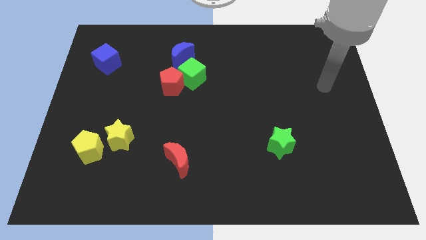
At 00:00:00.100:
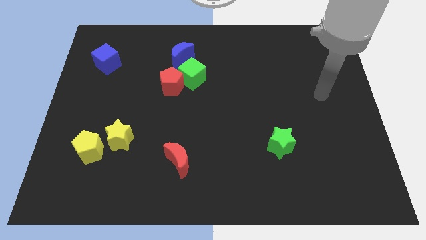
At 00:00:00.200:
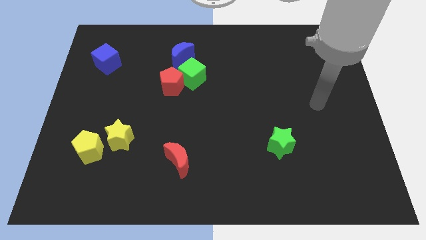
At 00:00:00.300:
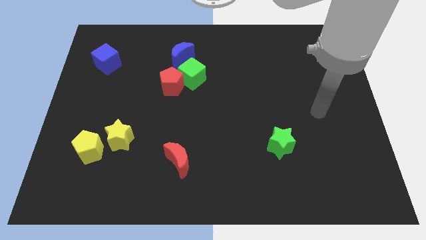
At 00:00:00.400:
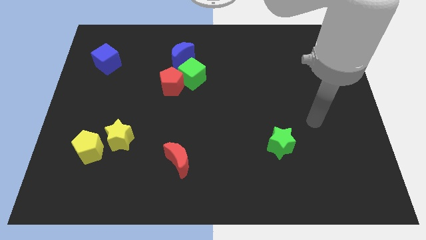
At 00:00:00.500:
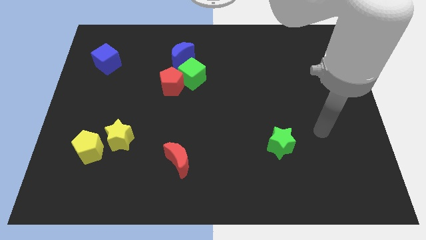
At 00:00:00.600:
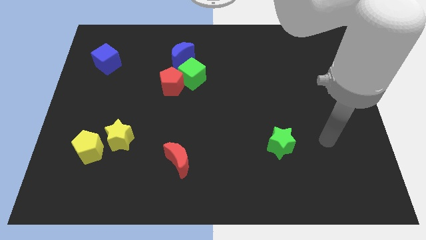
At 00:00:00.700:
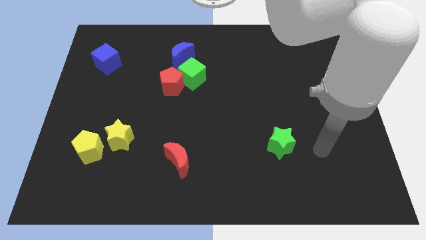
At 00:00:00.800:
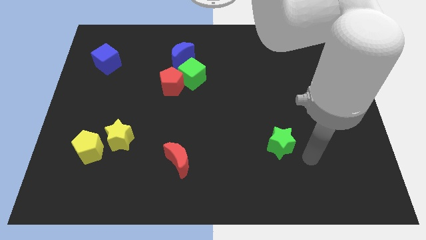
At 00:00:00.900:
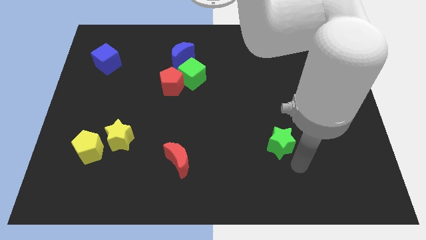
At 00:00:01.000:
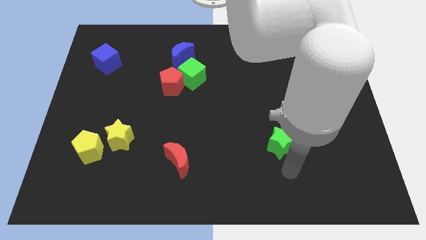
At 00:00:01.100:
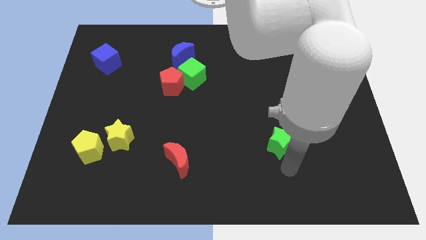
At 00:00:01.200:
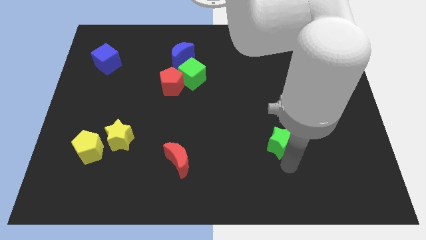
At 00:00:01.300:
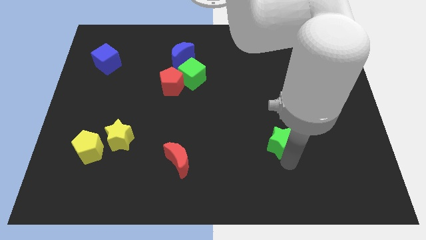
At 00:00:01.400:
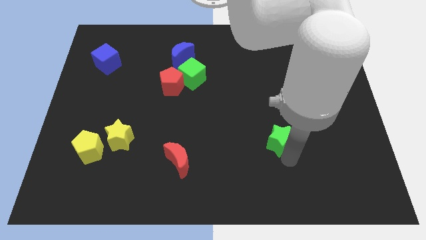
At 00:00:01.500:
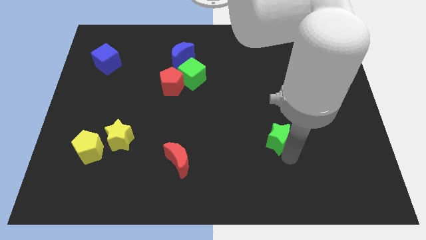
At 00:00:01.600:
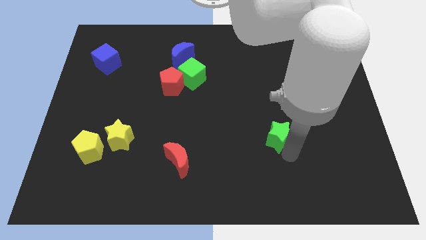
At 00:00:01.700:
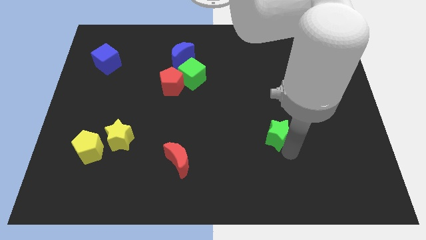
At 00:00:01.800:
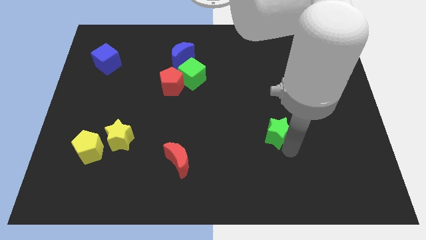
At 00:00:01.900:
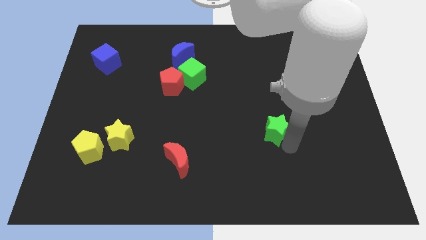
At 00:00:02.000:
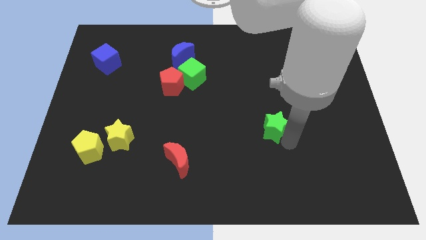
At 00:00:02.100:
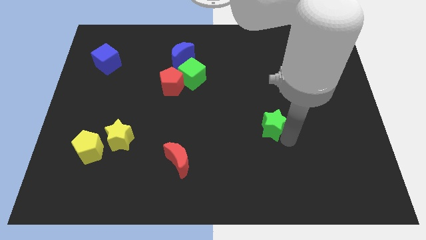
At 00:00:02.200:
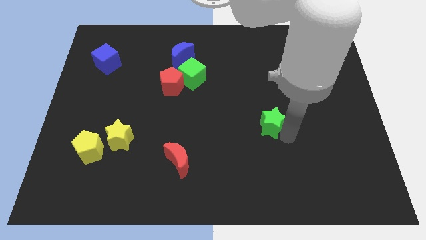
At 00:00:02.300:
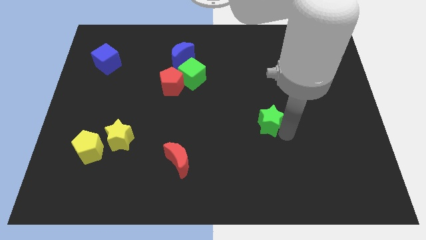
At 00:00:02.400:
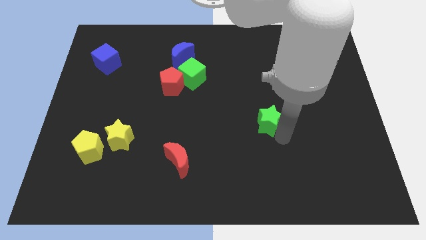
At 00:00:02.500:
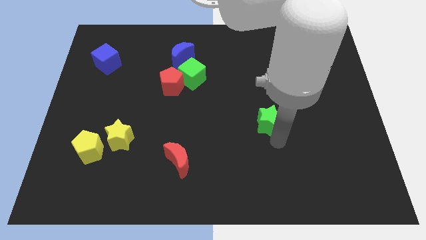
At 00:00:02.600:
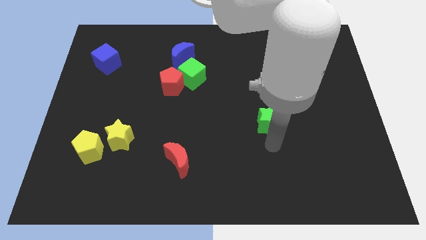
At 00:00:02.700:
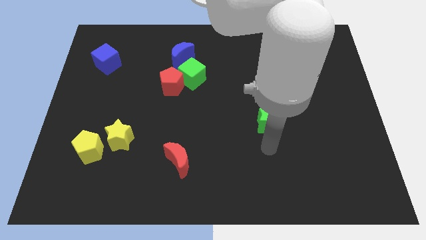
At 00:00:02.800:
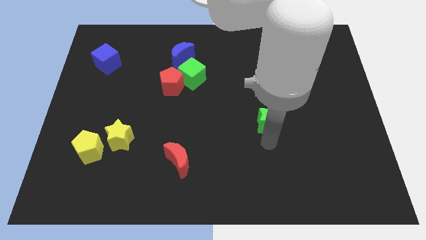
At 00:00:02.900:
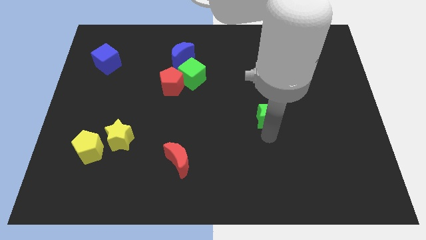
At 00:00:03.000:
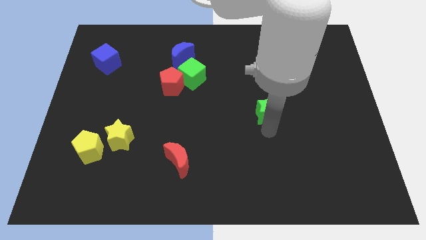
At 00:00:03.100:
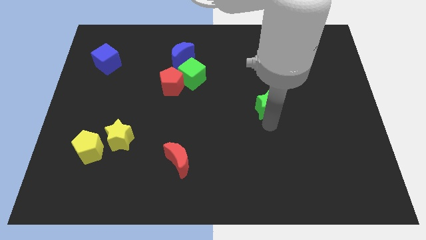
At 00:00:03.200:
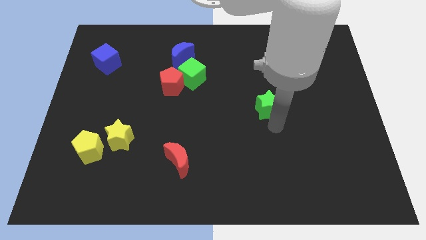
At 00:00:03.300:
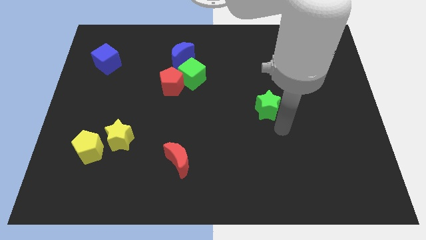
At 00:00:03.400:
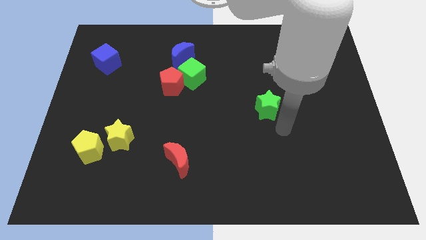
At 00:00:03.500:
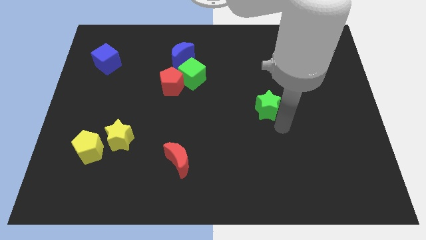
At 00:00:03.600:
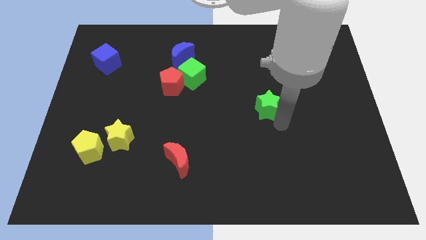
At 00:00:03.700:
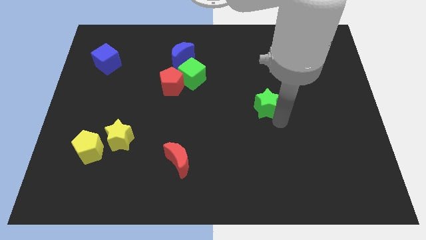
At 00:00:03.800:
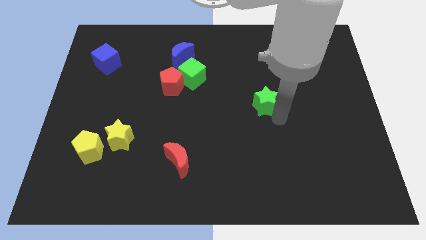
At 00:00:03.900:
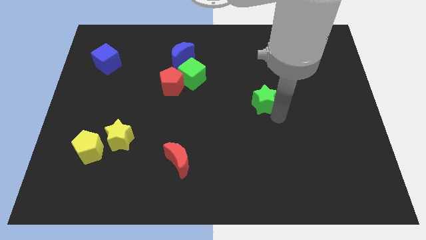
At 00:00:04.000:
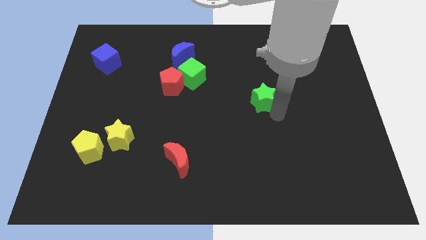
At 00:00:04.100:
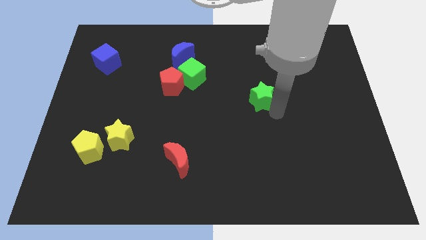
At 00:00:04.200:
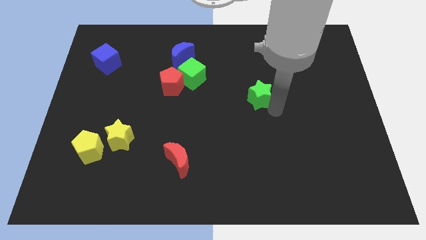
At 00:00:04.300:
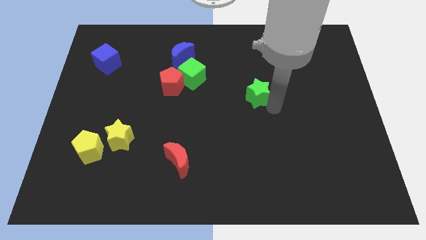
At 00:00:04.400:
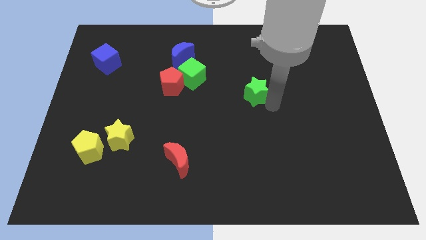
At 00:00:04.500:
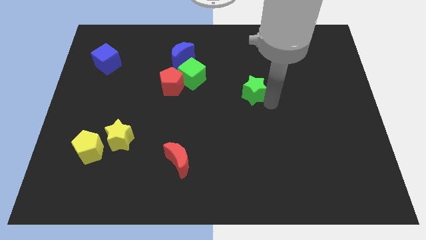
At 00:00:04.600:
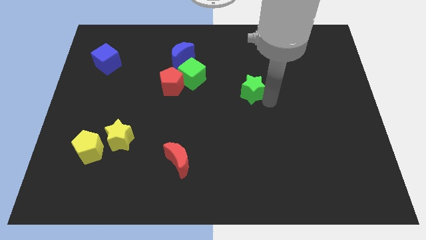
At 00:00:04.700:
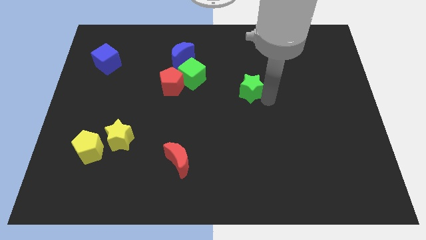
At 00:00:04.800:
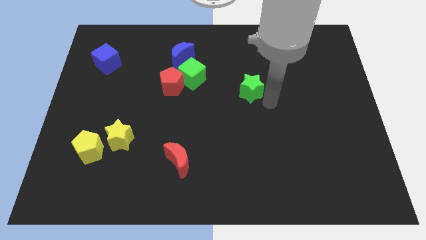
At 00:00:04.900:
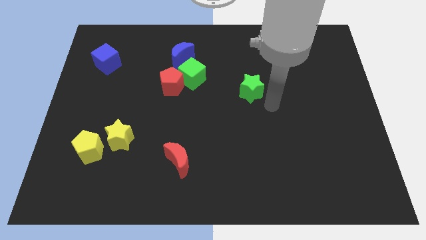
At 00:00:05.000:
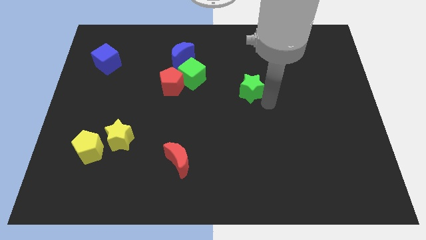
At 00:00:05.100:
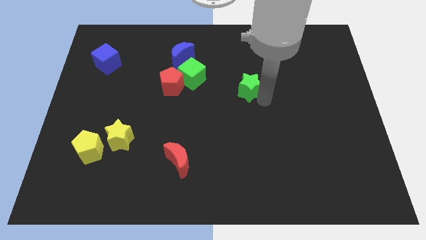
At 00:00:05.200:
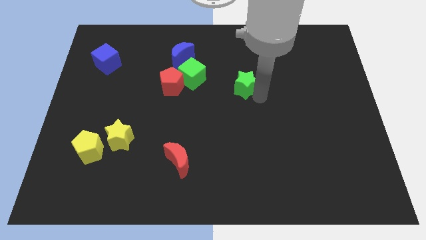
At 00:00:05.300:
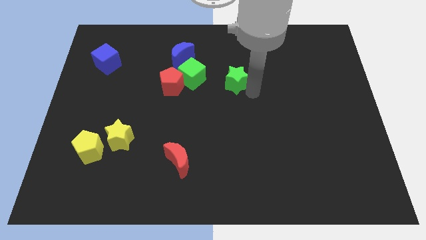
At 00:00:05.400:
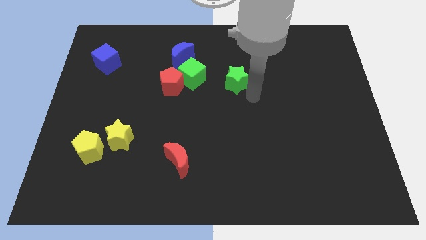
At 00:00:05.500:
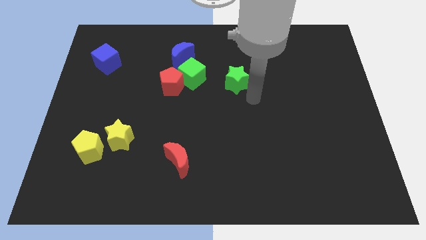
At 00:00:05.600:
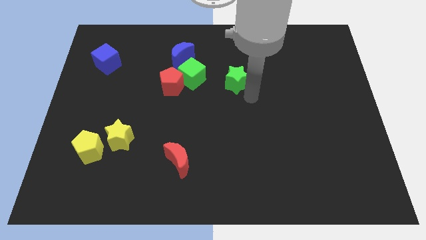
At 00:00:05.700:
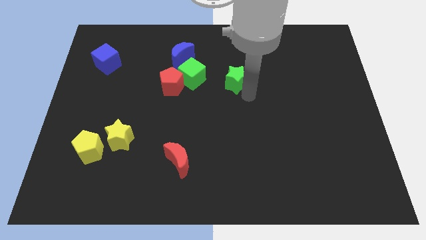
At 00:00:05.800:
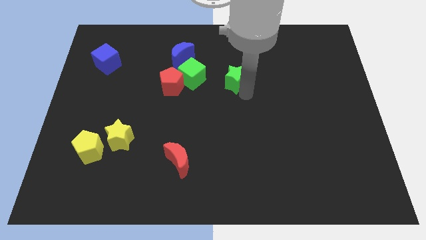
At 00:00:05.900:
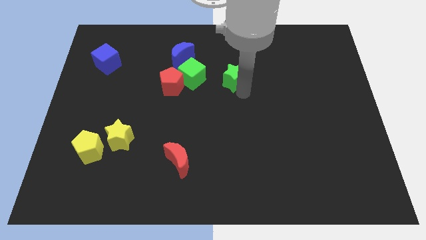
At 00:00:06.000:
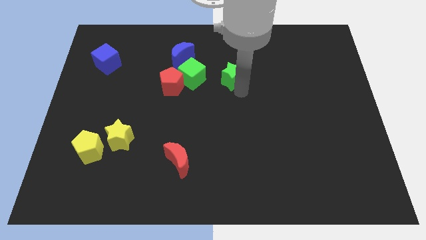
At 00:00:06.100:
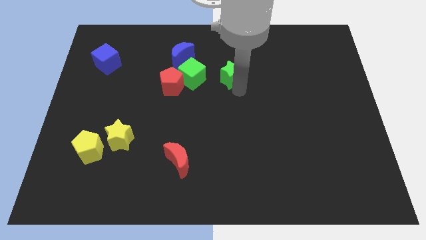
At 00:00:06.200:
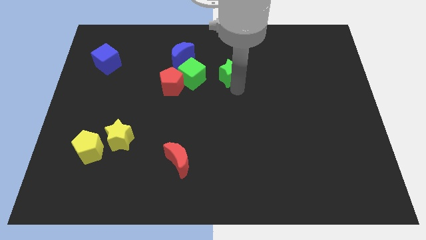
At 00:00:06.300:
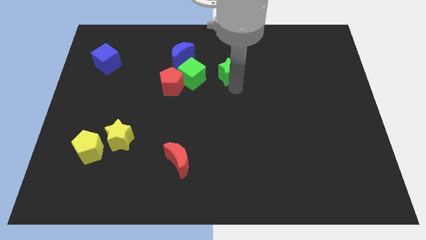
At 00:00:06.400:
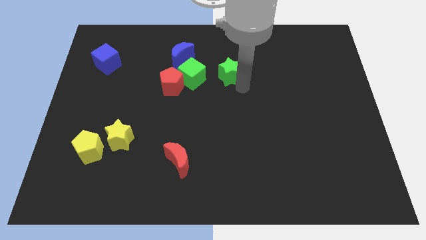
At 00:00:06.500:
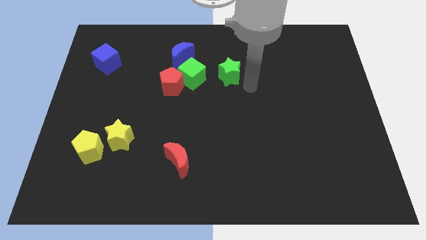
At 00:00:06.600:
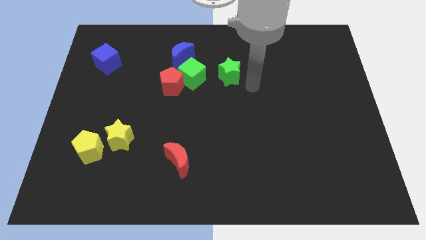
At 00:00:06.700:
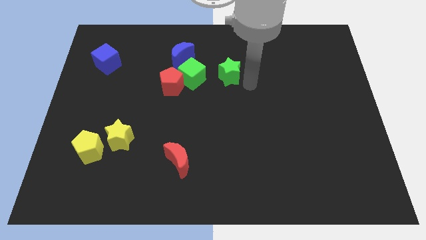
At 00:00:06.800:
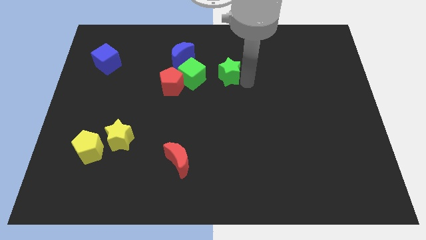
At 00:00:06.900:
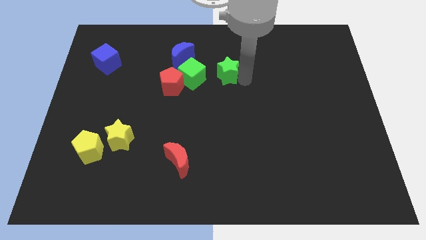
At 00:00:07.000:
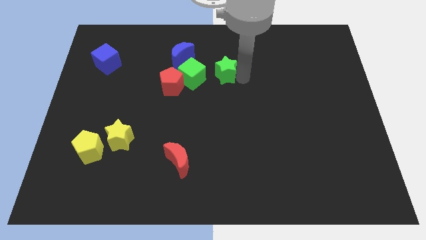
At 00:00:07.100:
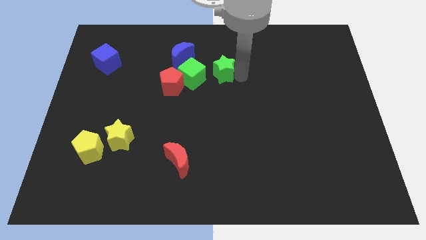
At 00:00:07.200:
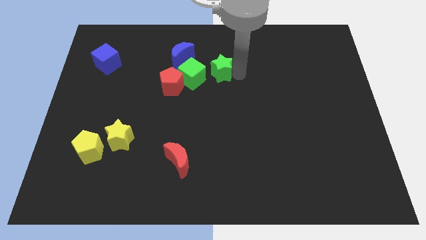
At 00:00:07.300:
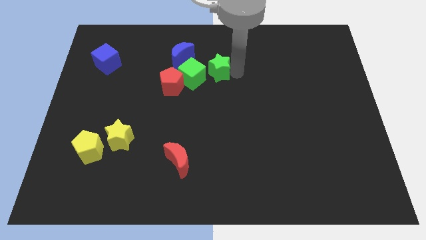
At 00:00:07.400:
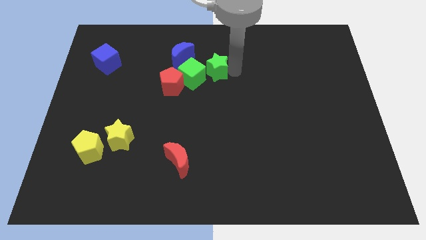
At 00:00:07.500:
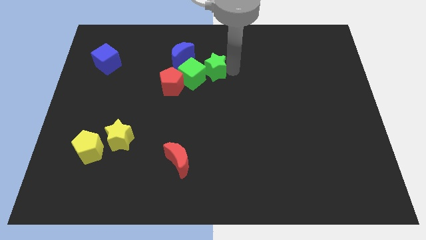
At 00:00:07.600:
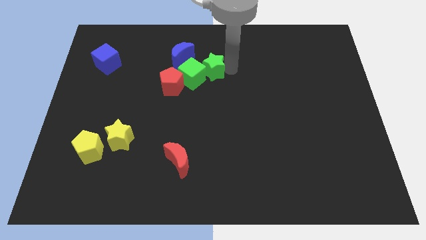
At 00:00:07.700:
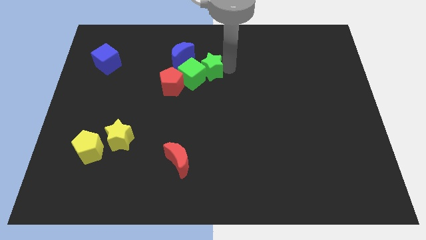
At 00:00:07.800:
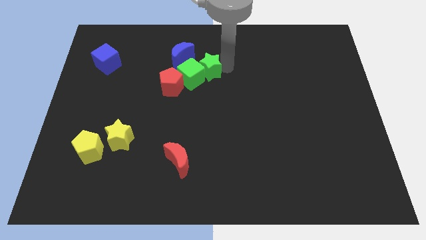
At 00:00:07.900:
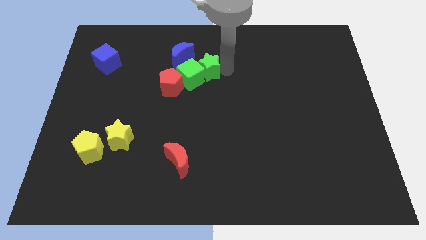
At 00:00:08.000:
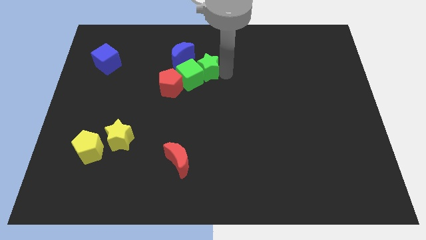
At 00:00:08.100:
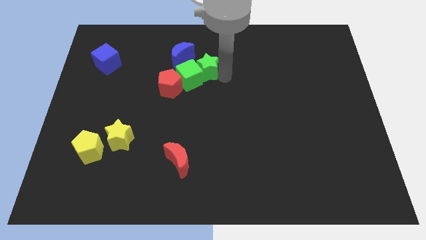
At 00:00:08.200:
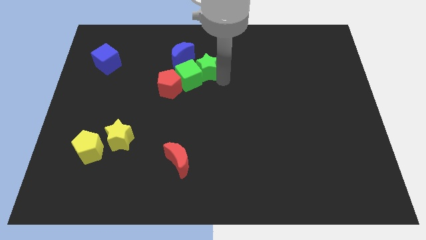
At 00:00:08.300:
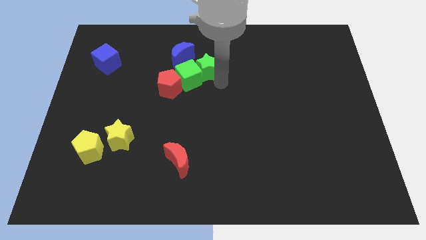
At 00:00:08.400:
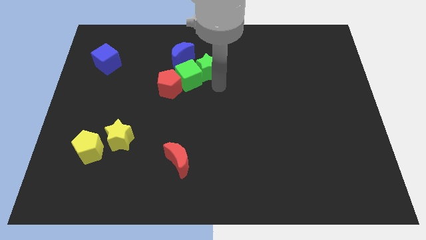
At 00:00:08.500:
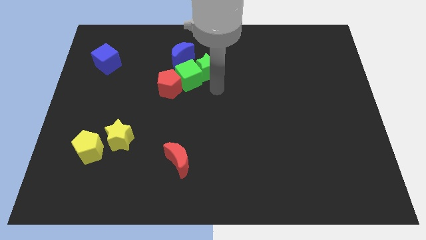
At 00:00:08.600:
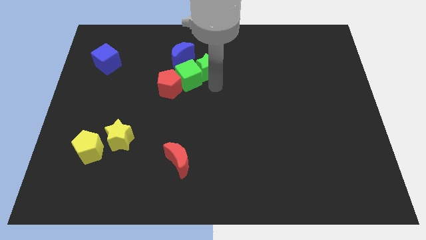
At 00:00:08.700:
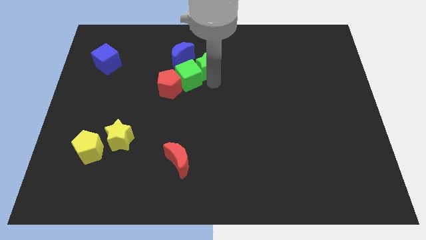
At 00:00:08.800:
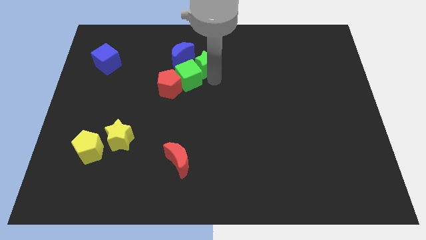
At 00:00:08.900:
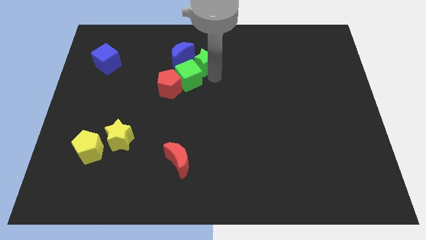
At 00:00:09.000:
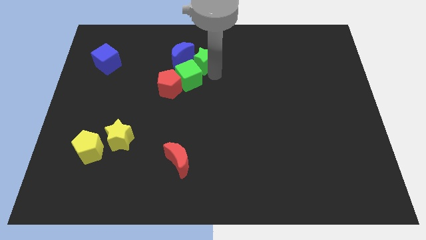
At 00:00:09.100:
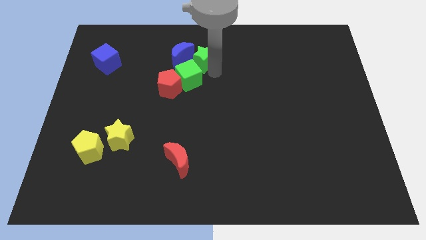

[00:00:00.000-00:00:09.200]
put the green star next to the blue moon
